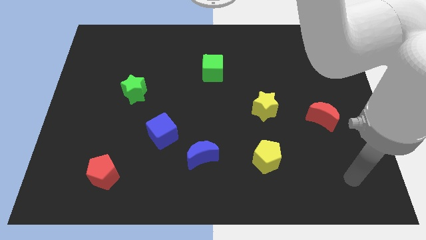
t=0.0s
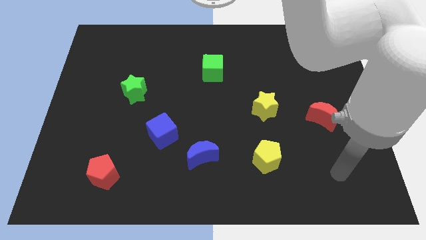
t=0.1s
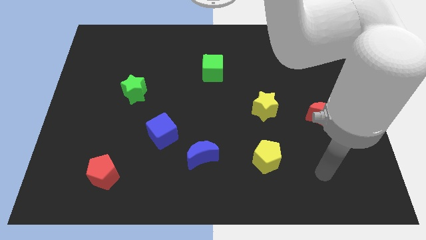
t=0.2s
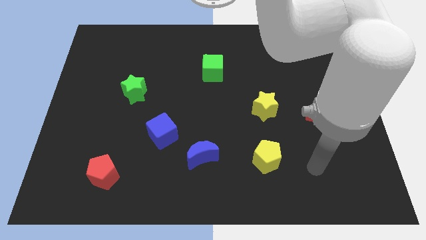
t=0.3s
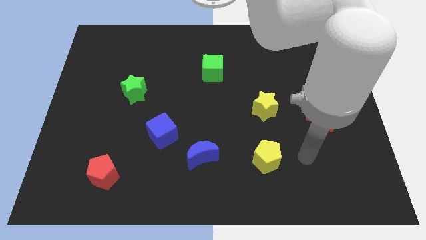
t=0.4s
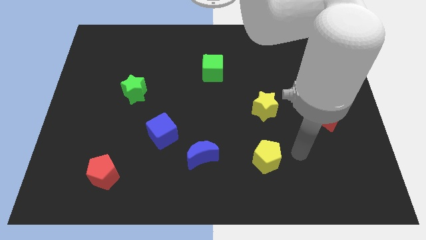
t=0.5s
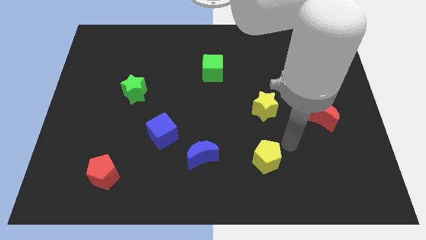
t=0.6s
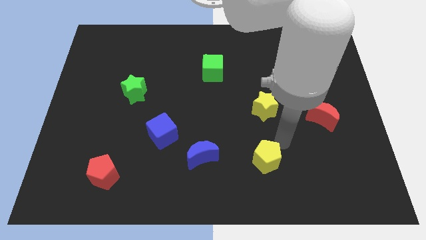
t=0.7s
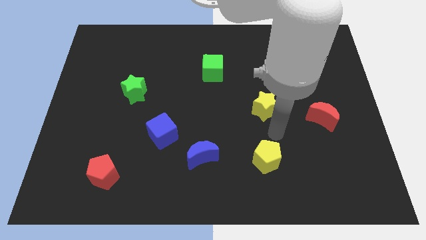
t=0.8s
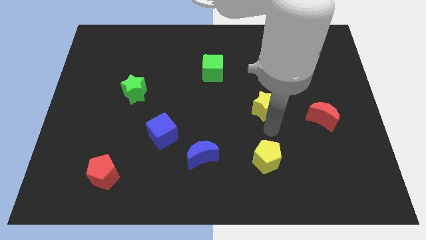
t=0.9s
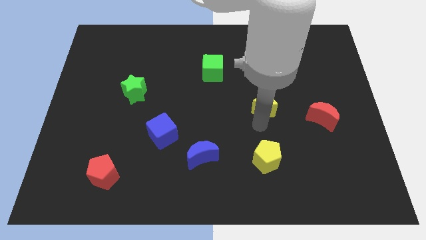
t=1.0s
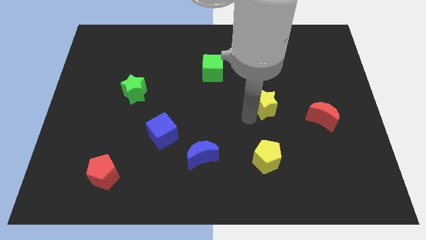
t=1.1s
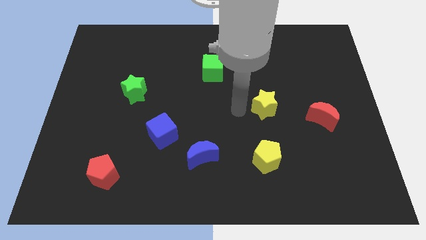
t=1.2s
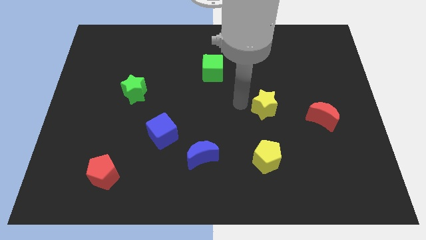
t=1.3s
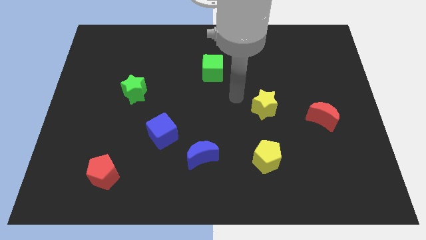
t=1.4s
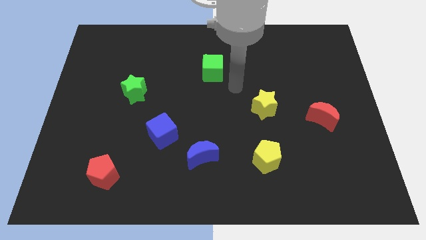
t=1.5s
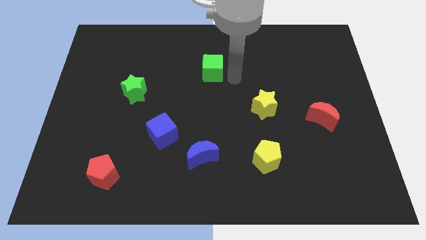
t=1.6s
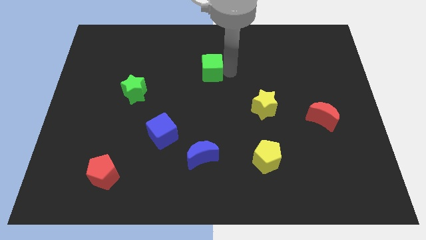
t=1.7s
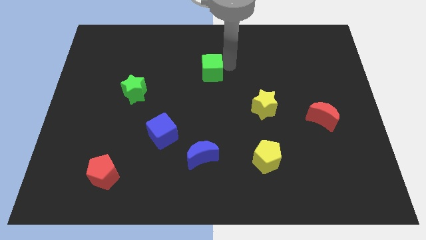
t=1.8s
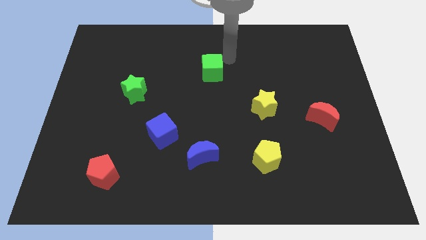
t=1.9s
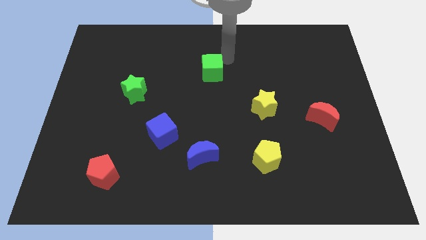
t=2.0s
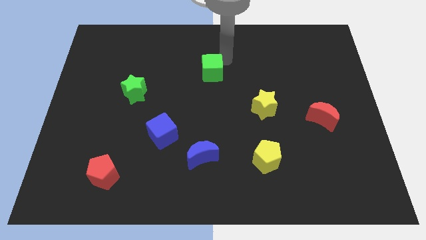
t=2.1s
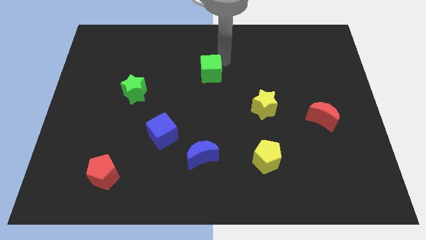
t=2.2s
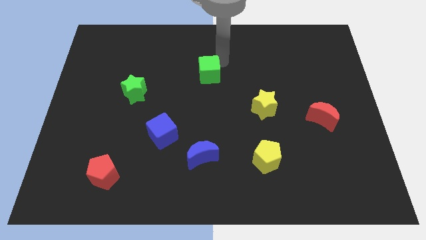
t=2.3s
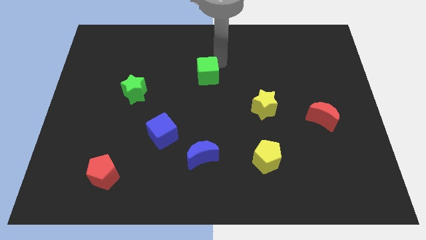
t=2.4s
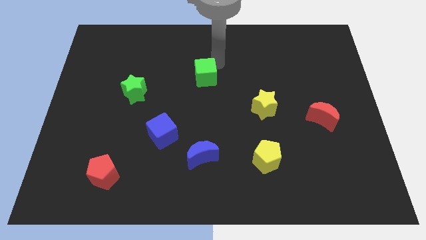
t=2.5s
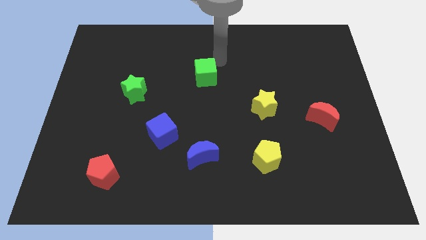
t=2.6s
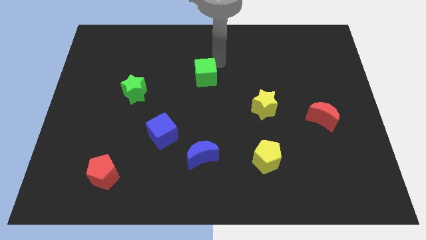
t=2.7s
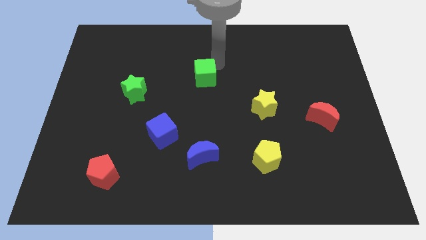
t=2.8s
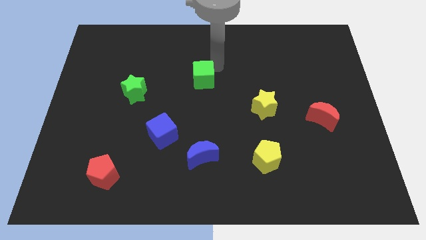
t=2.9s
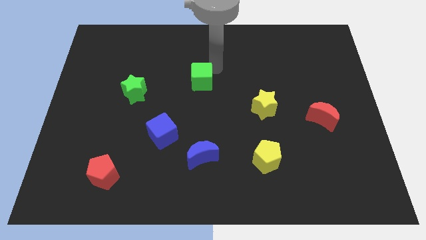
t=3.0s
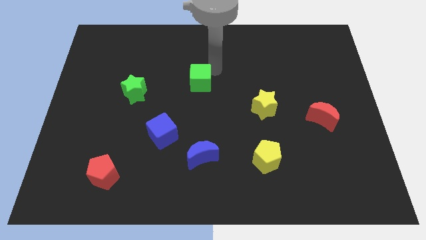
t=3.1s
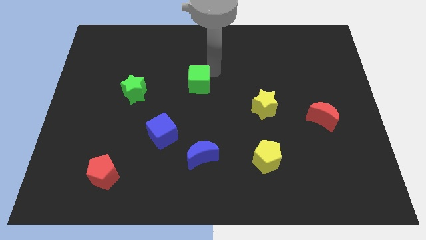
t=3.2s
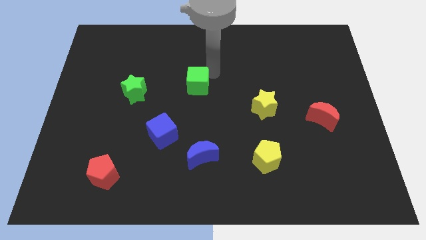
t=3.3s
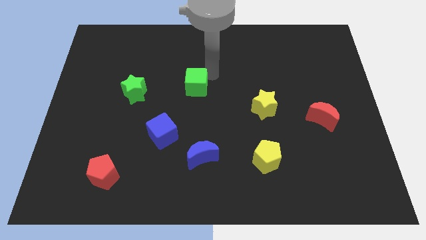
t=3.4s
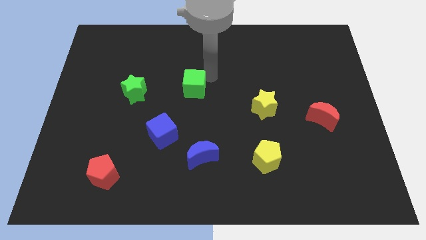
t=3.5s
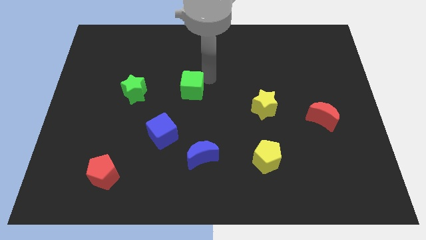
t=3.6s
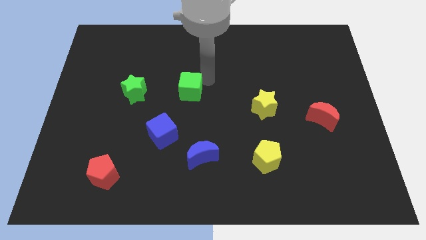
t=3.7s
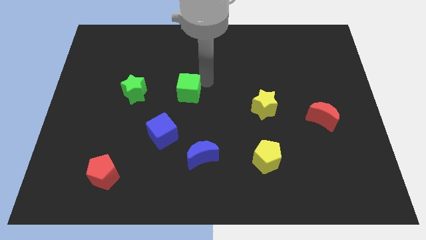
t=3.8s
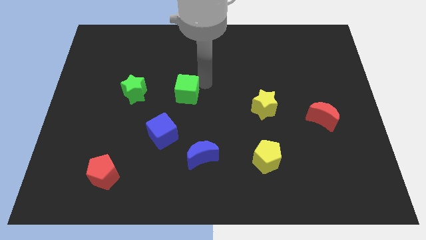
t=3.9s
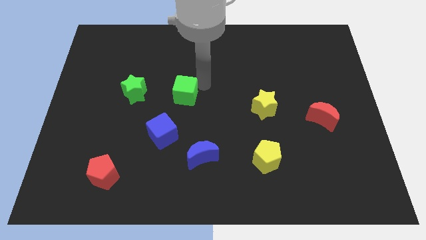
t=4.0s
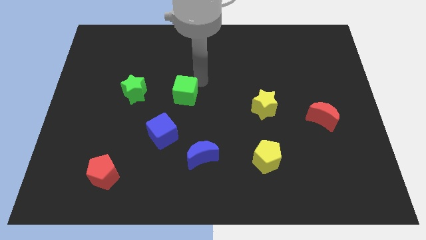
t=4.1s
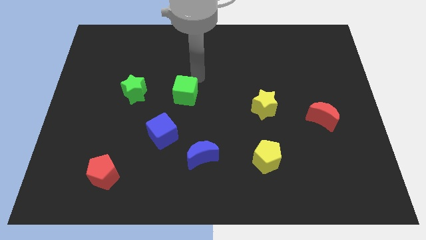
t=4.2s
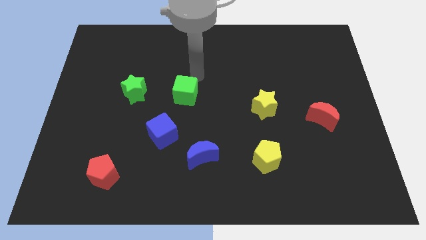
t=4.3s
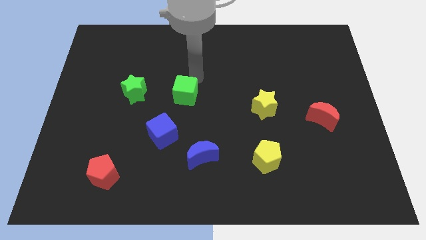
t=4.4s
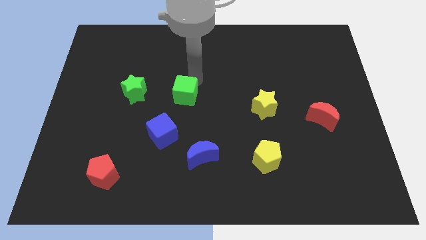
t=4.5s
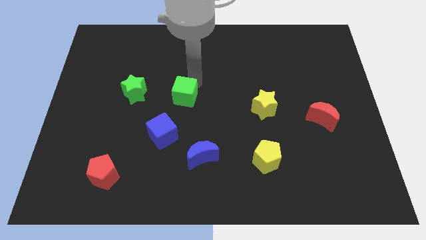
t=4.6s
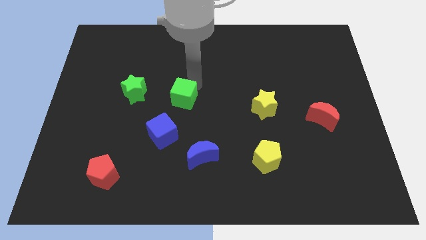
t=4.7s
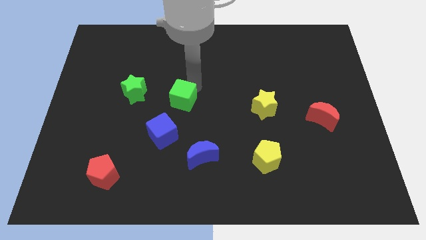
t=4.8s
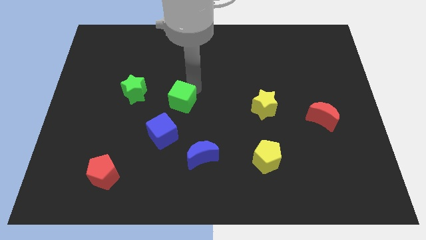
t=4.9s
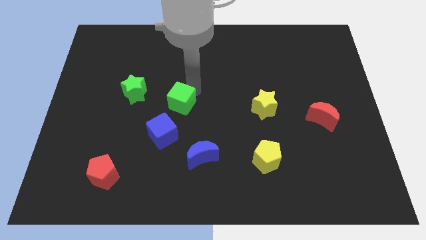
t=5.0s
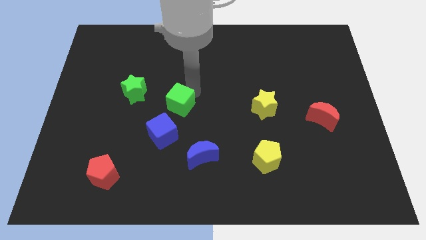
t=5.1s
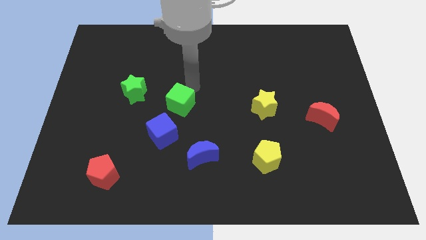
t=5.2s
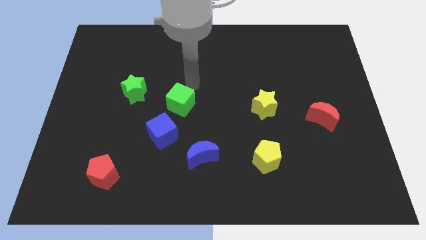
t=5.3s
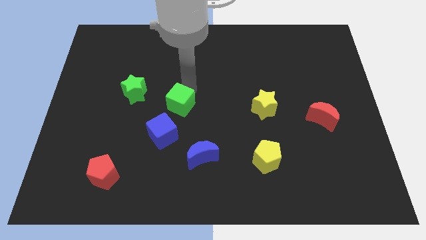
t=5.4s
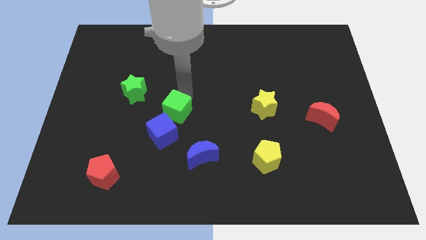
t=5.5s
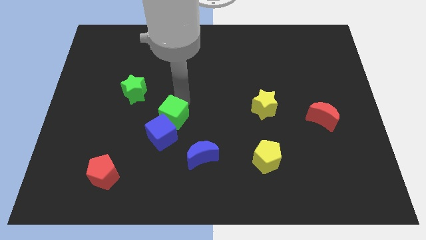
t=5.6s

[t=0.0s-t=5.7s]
slide the green cube close to the blue cube

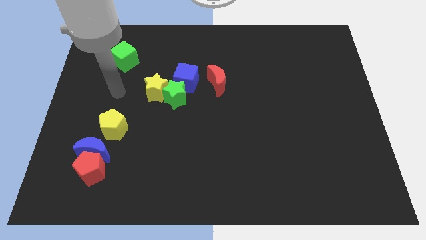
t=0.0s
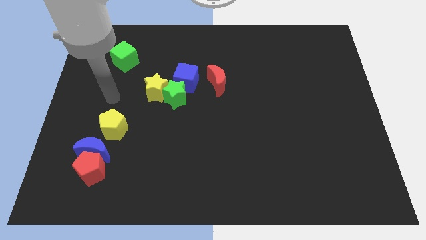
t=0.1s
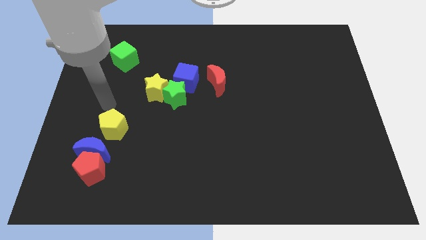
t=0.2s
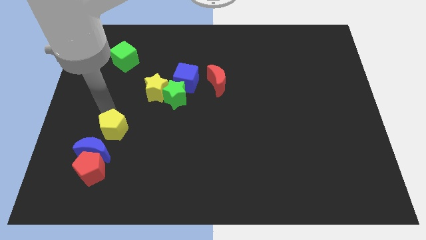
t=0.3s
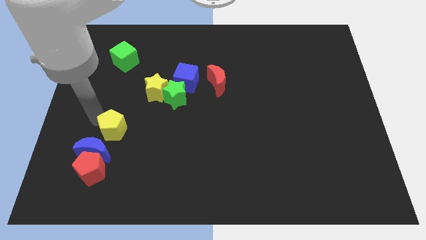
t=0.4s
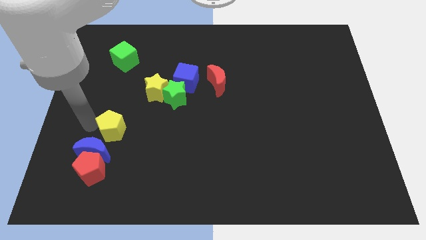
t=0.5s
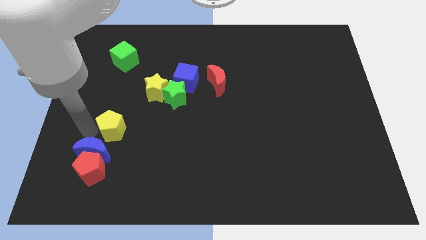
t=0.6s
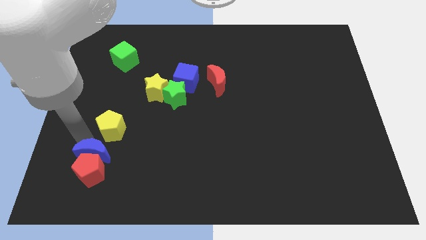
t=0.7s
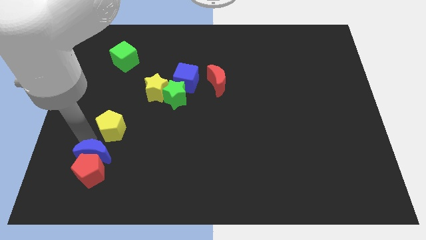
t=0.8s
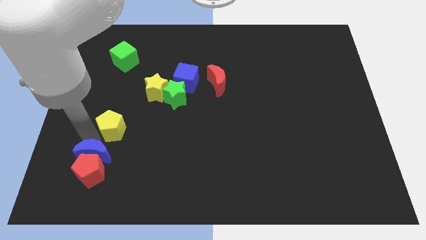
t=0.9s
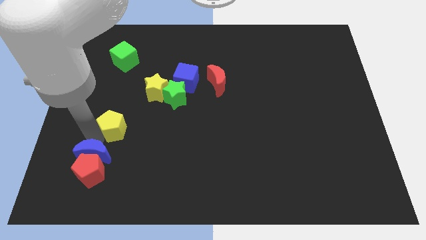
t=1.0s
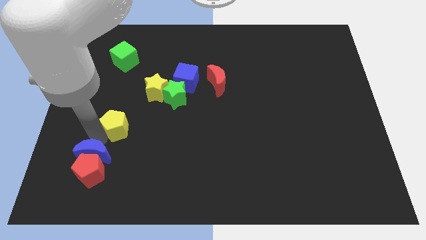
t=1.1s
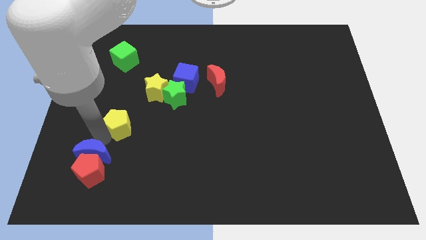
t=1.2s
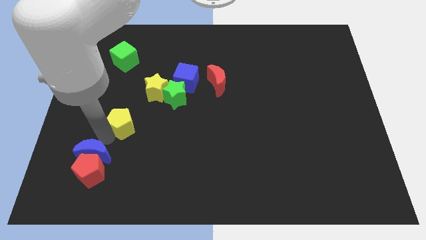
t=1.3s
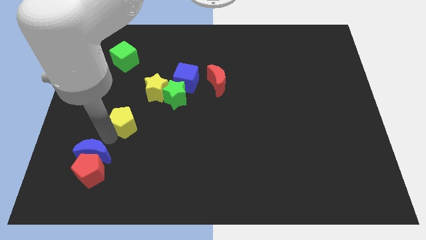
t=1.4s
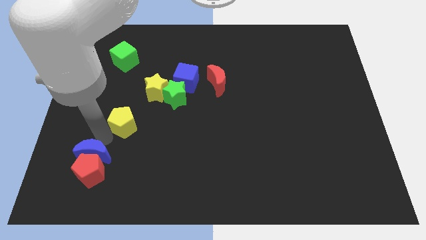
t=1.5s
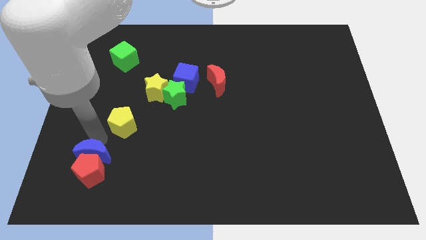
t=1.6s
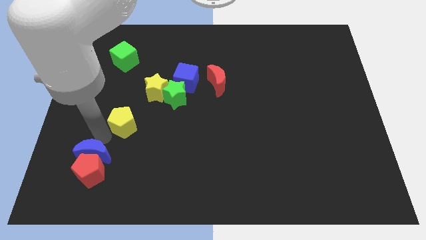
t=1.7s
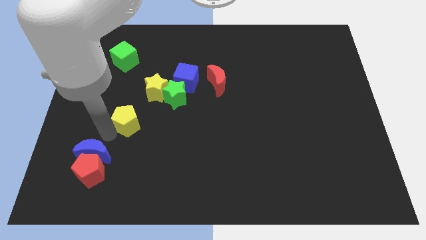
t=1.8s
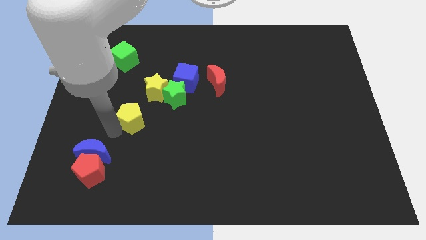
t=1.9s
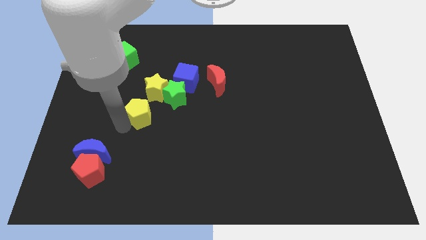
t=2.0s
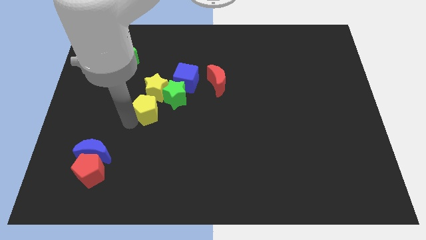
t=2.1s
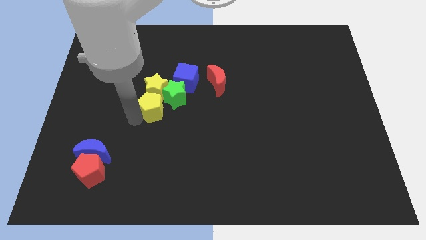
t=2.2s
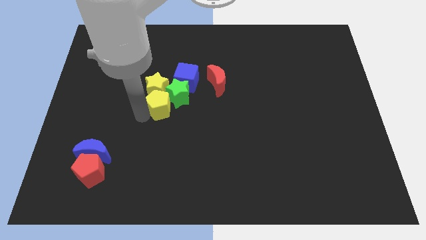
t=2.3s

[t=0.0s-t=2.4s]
move the yellow pentagon close to the green star
